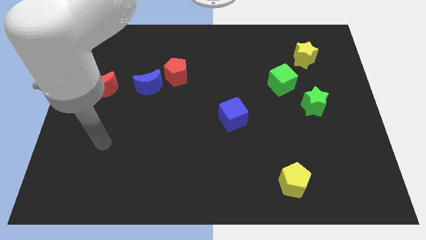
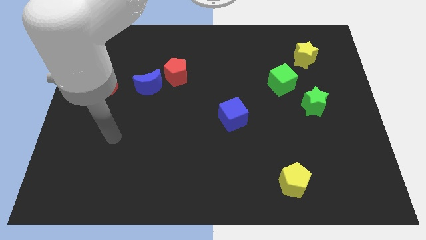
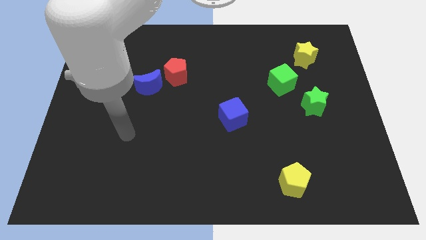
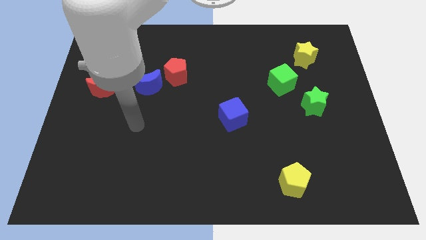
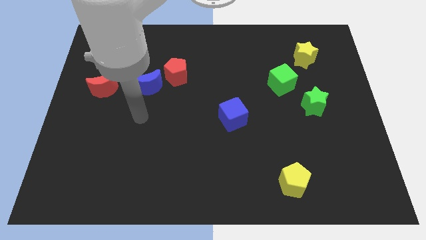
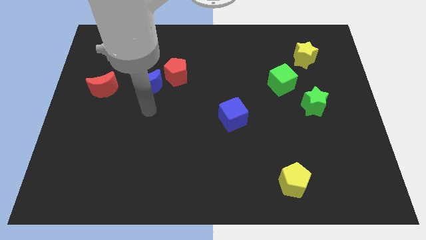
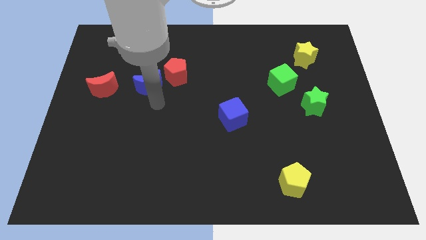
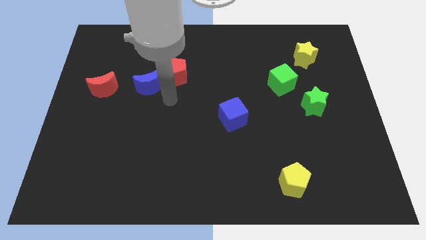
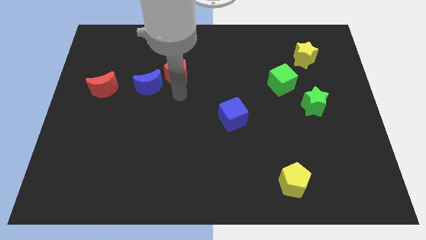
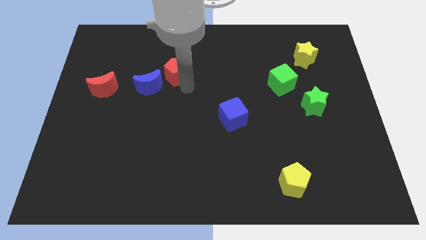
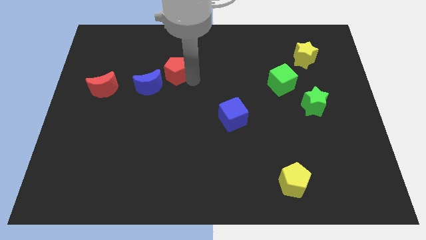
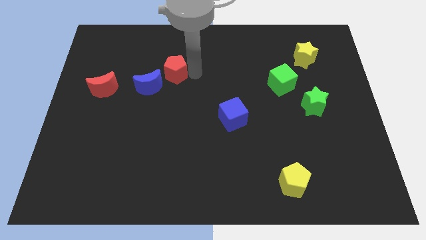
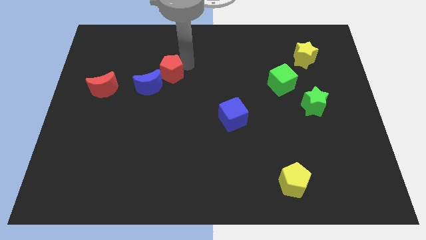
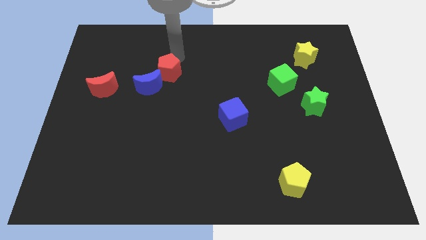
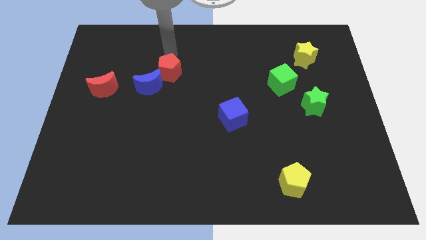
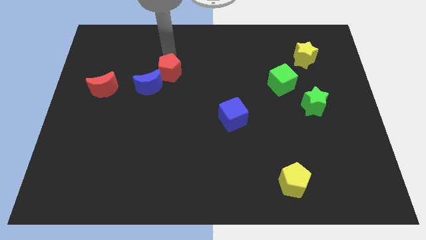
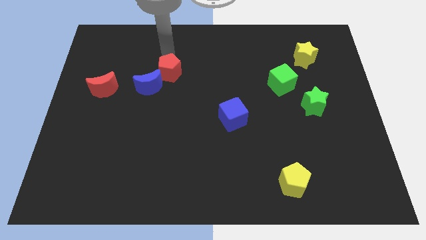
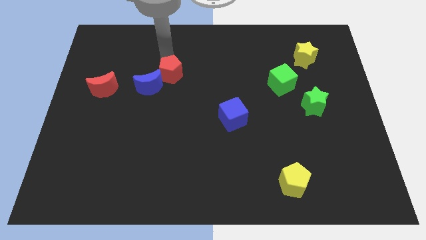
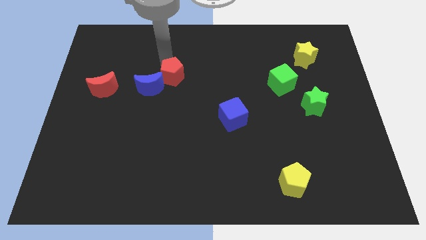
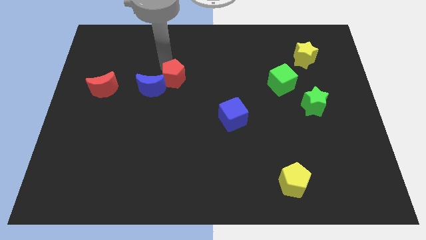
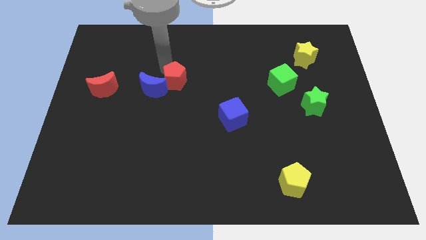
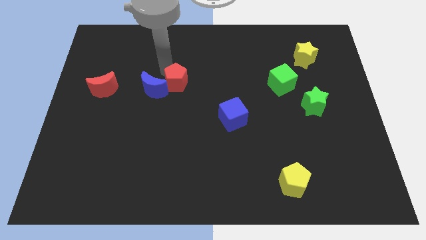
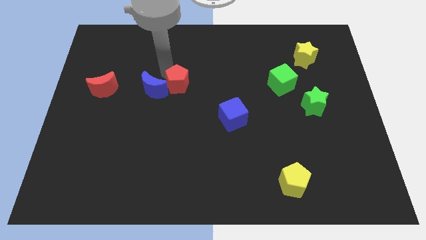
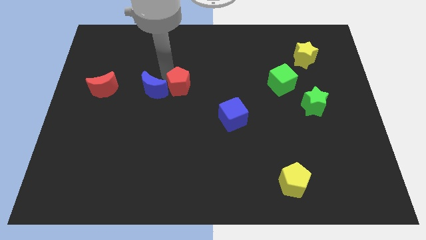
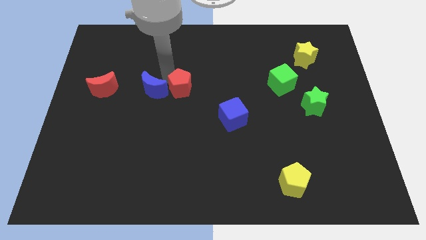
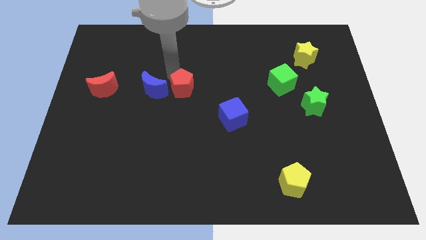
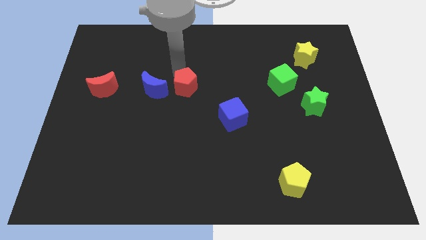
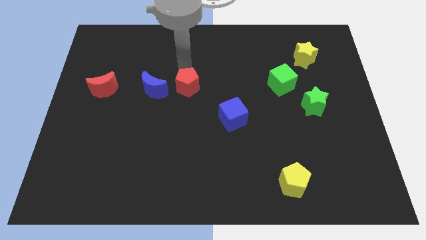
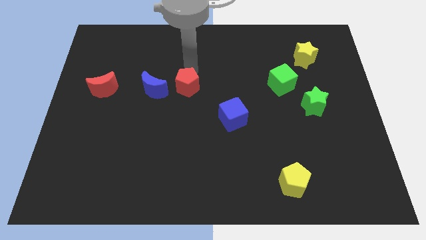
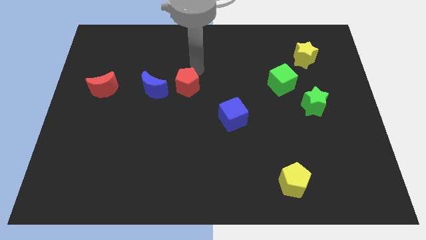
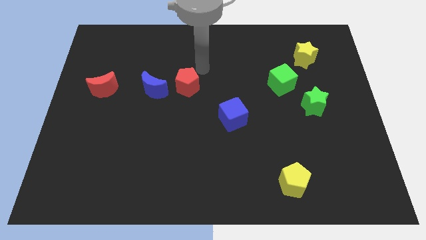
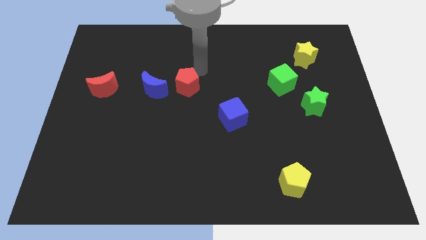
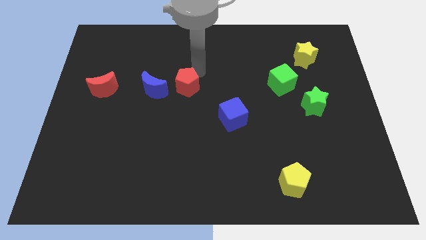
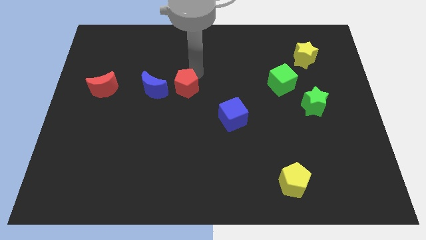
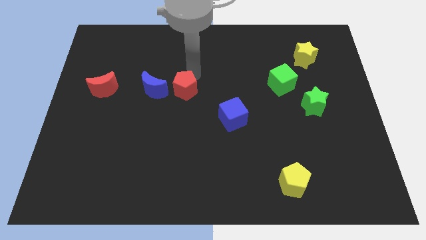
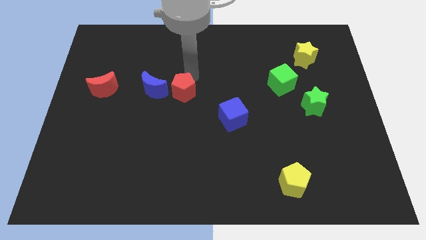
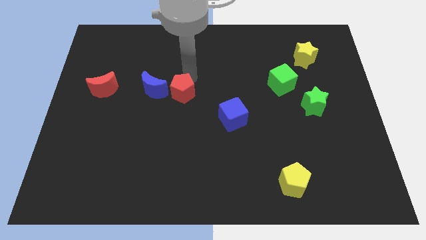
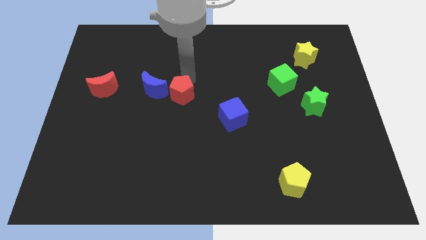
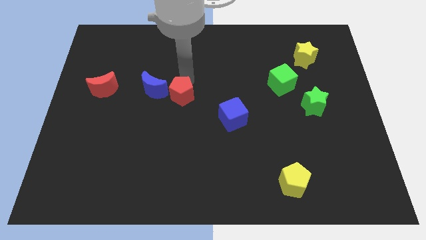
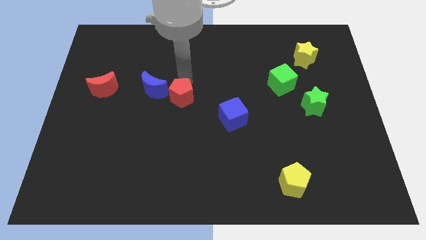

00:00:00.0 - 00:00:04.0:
slightly move the red pentagon downwards

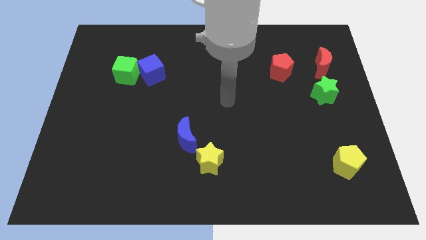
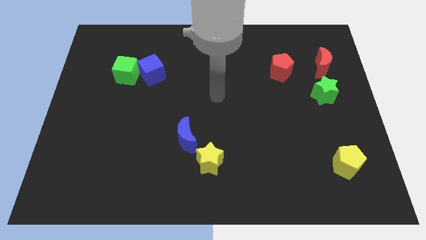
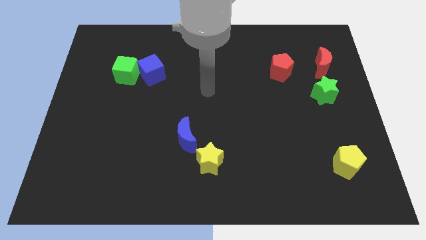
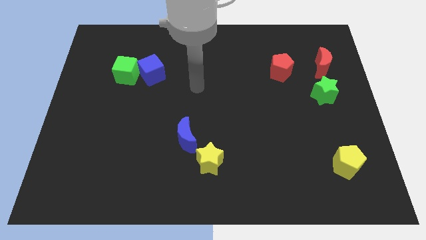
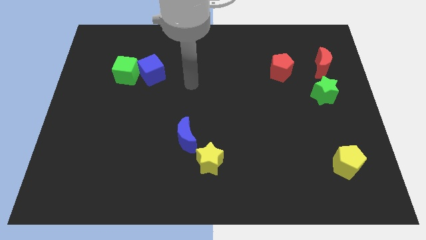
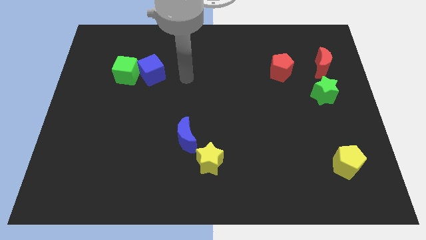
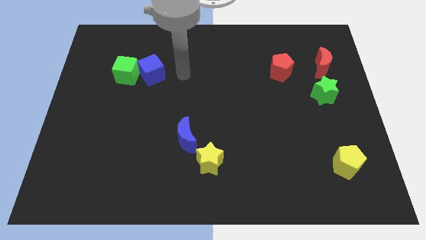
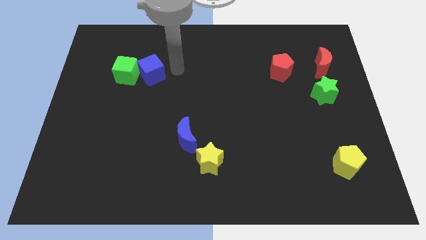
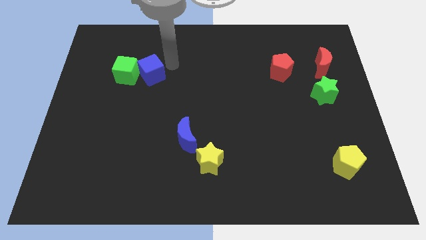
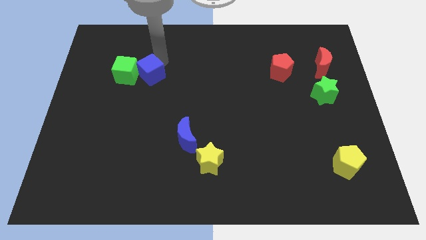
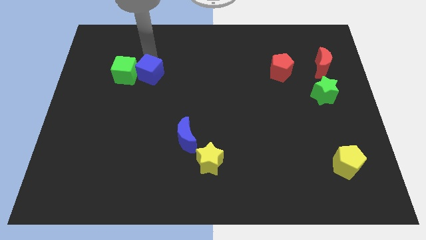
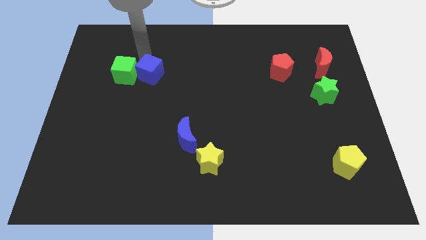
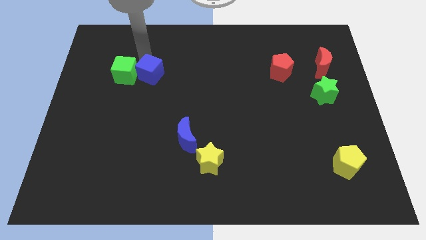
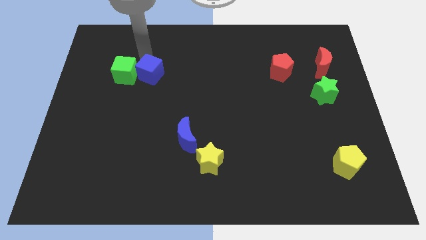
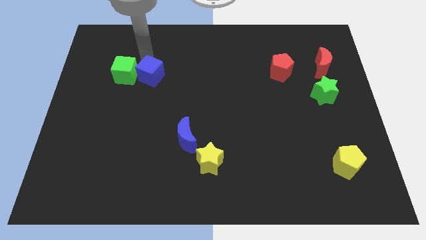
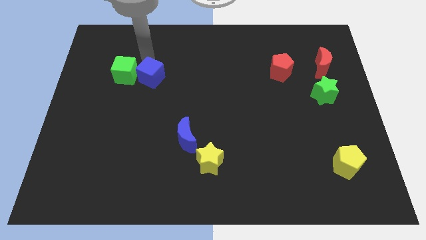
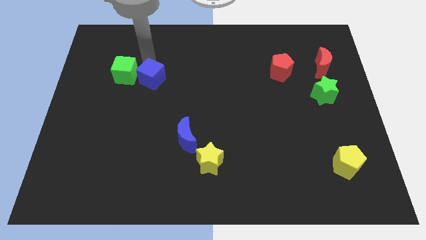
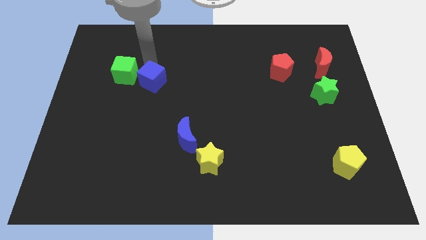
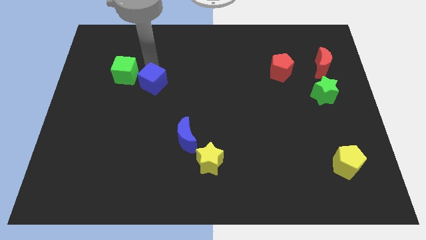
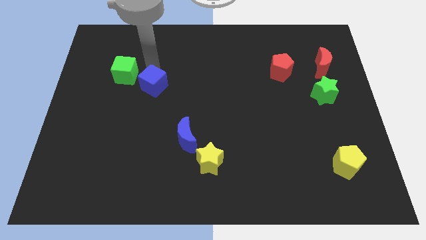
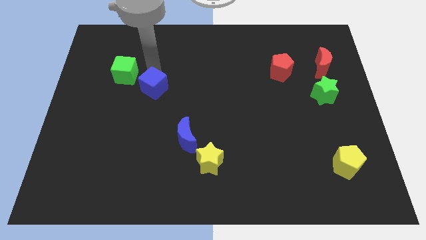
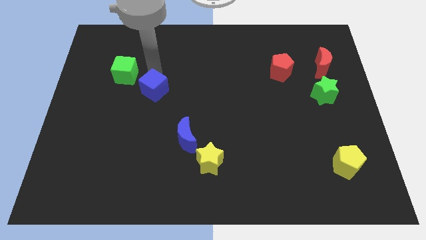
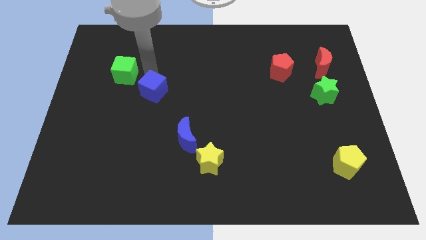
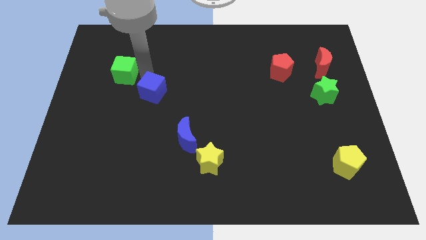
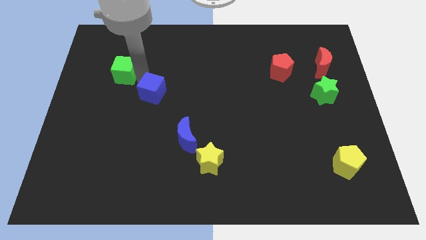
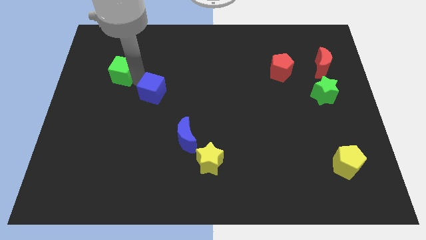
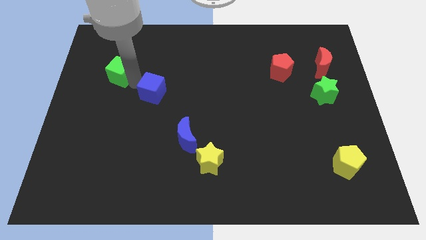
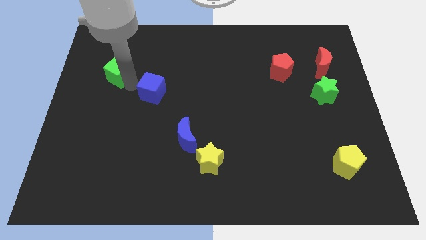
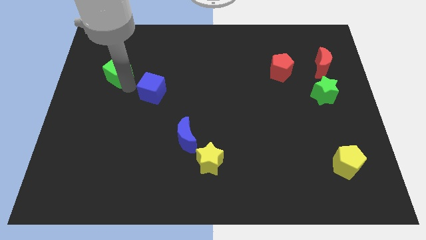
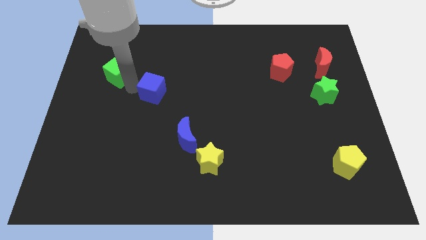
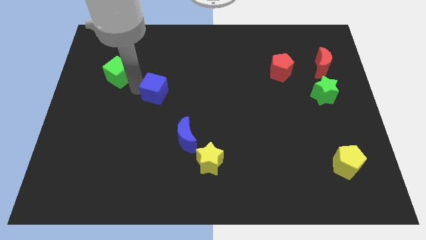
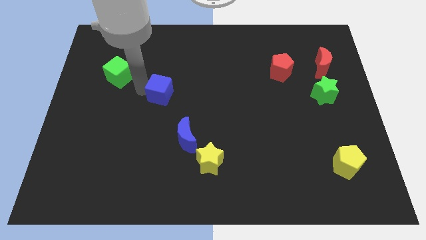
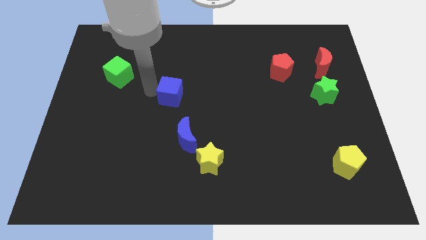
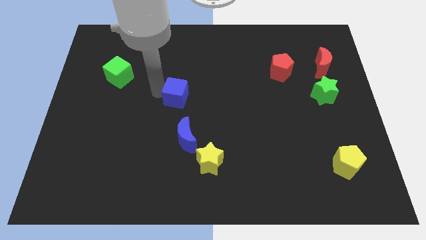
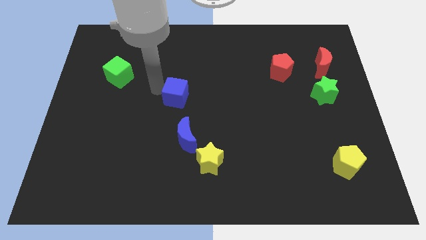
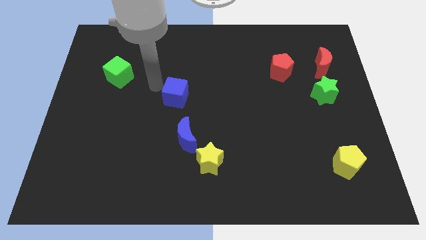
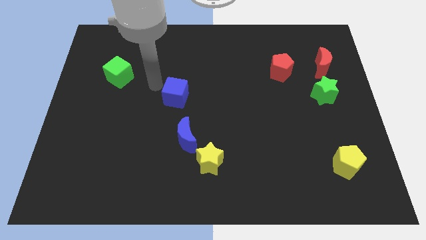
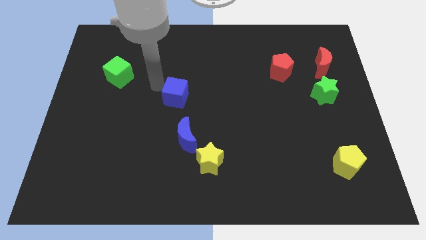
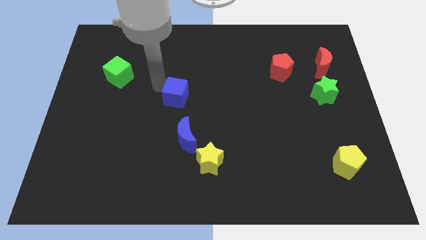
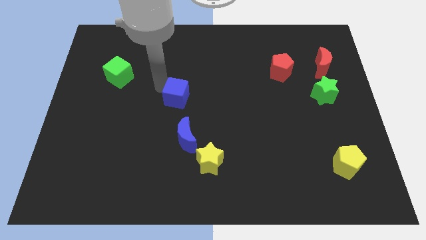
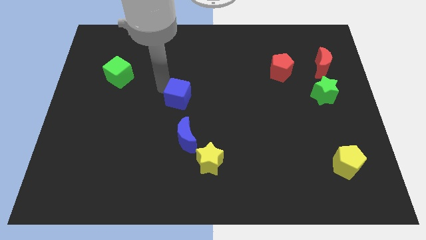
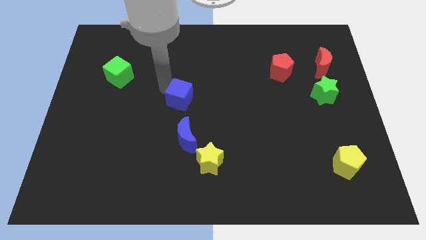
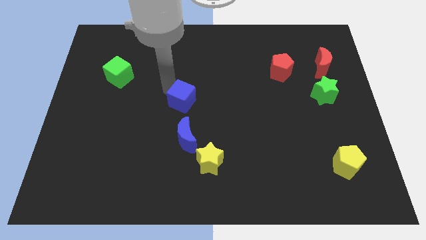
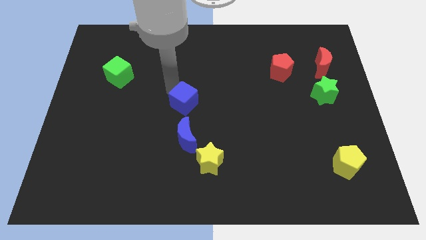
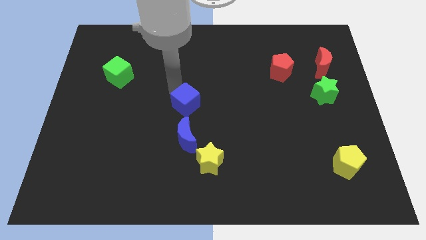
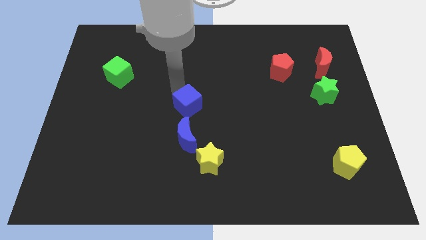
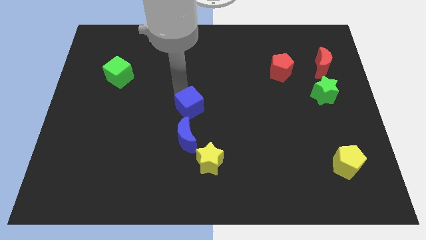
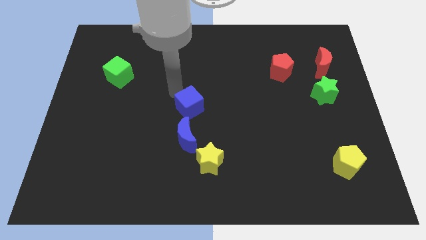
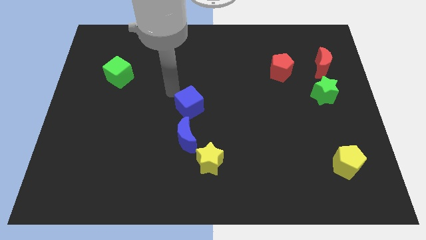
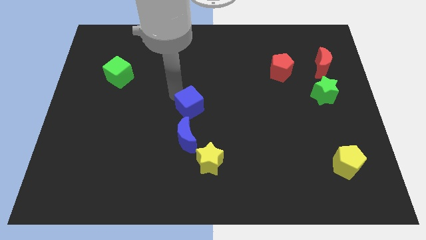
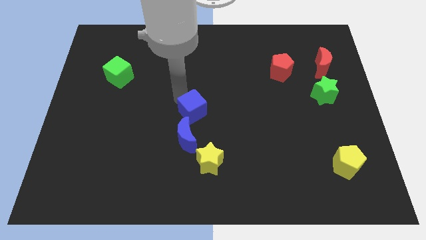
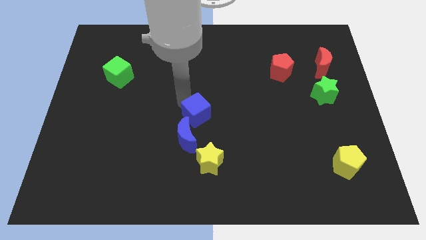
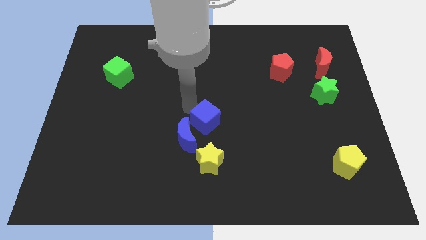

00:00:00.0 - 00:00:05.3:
move the blue cube down and right diagonally
